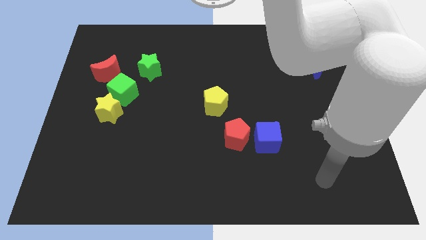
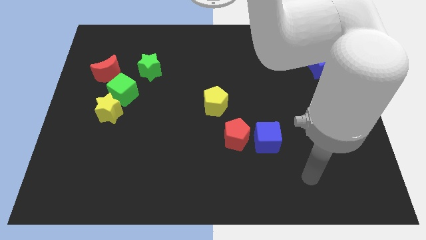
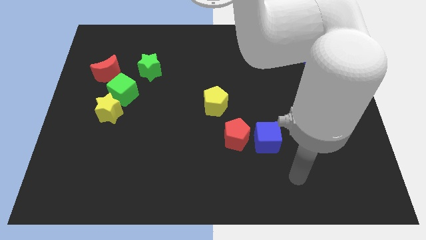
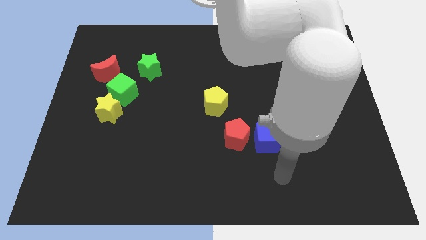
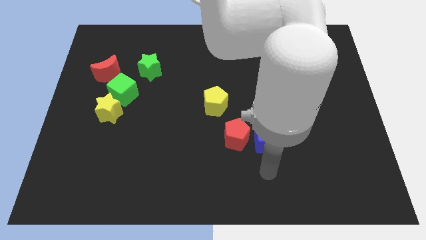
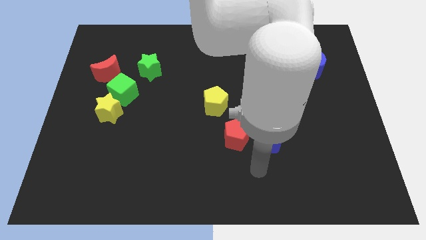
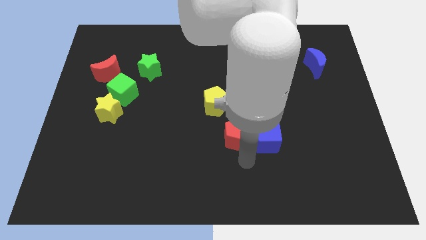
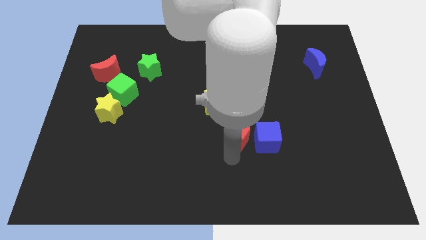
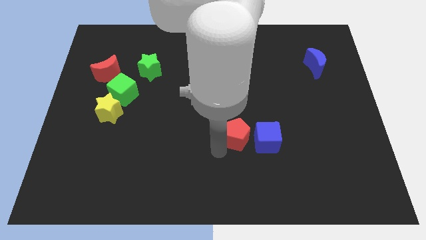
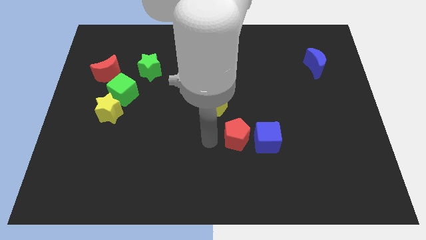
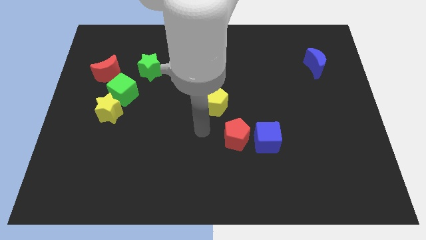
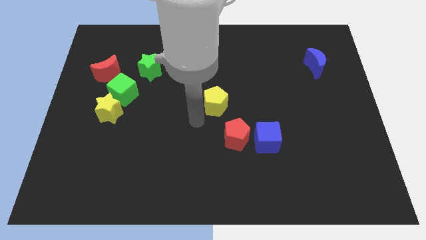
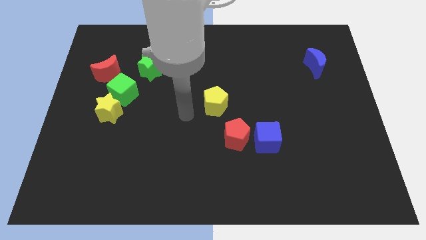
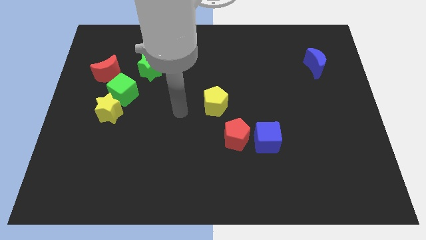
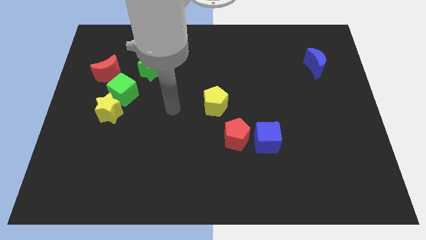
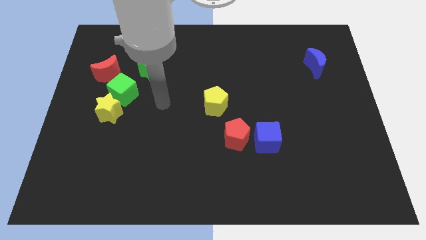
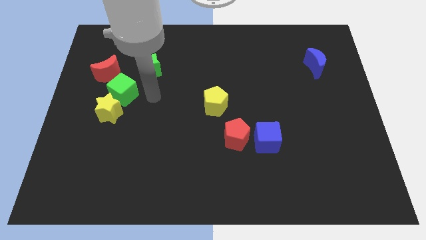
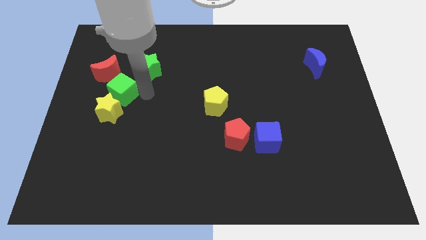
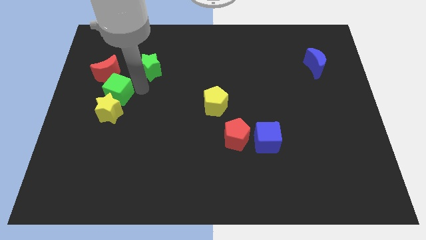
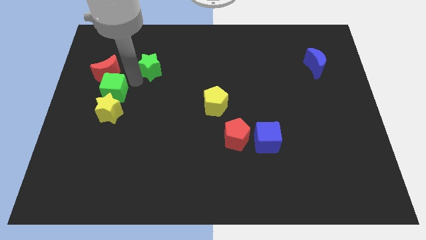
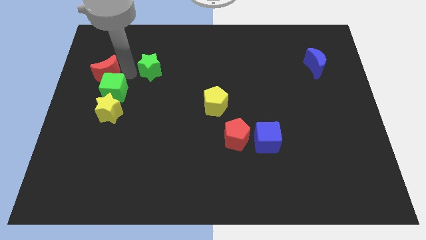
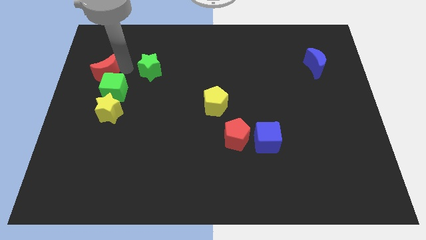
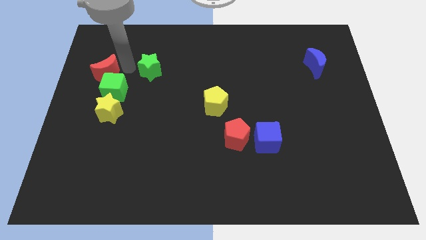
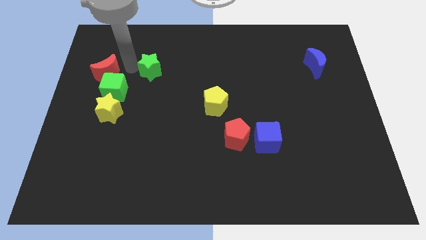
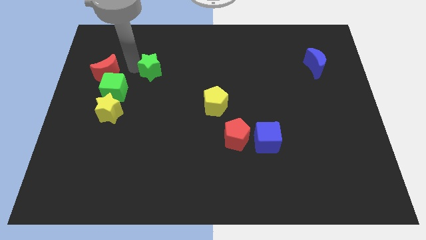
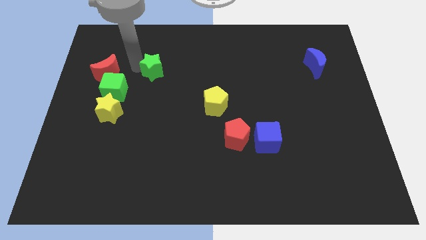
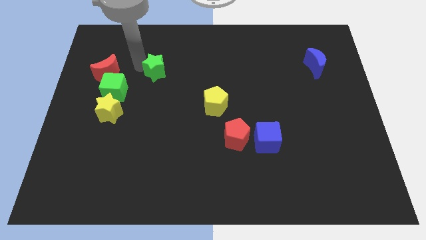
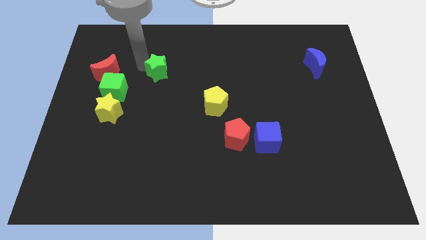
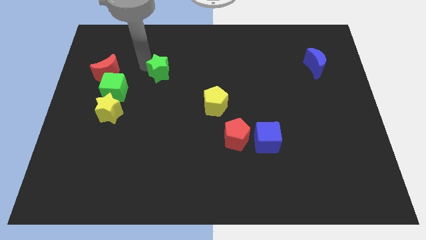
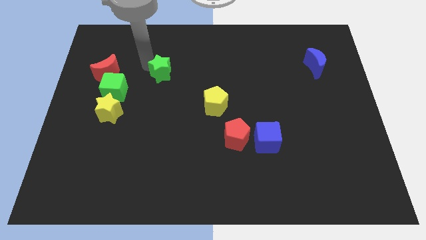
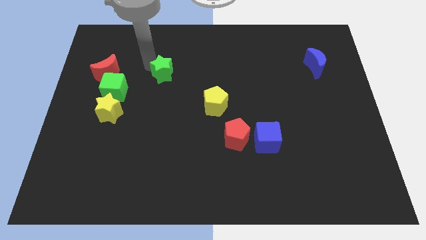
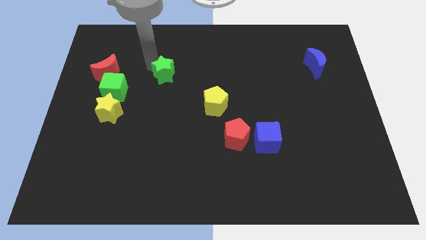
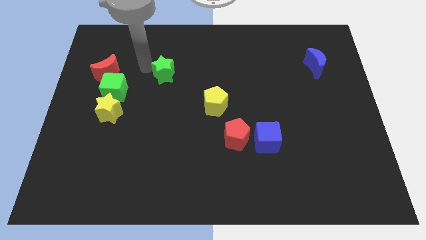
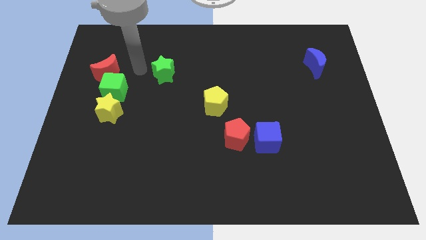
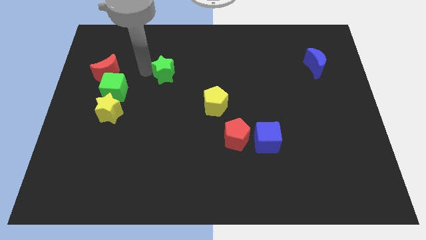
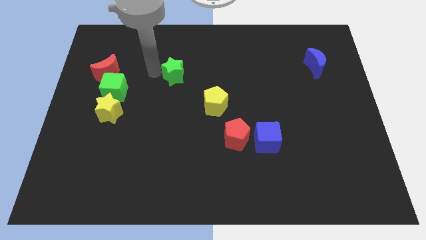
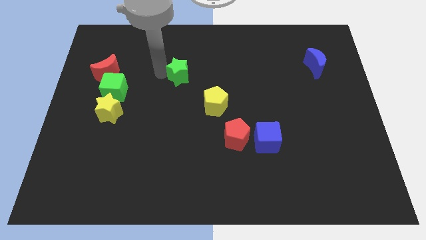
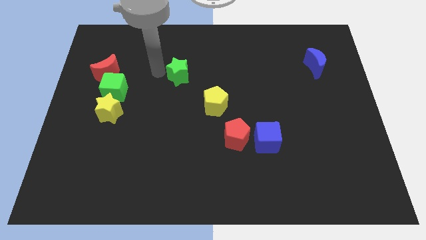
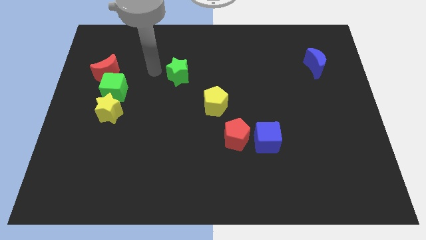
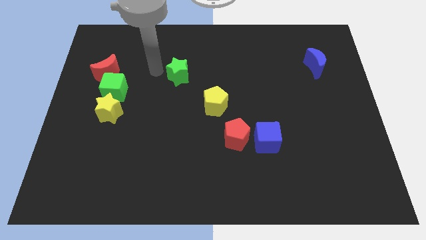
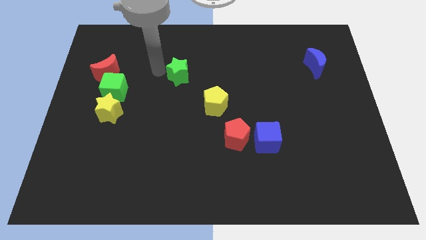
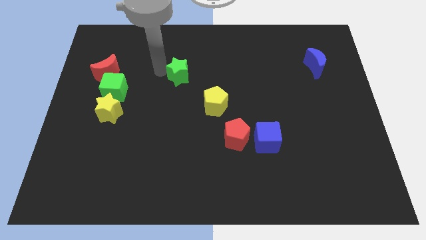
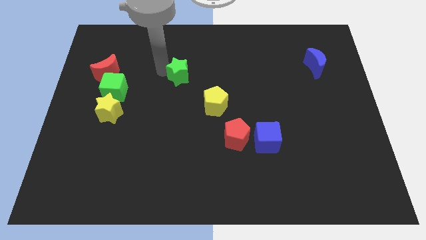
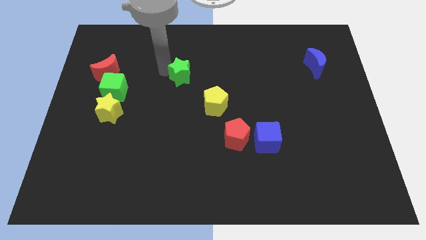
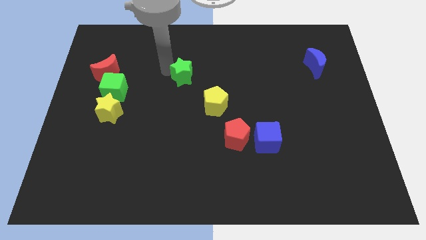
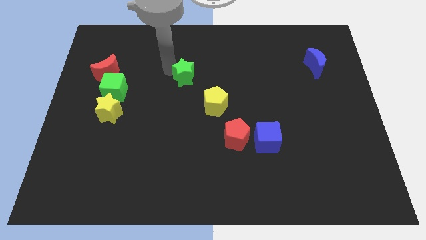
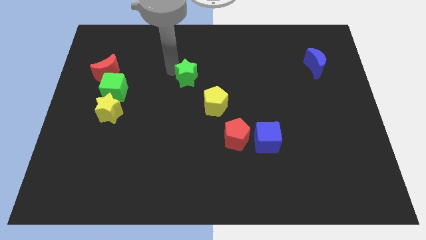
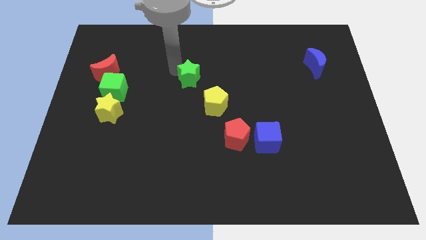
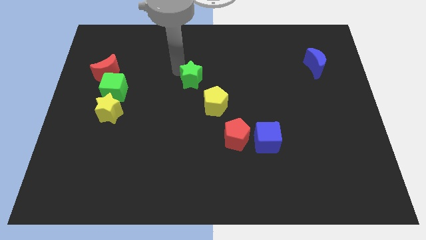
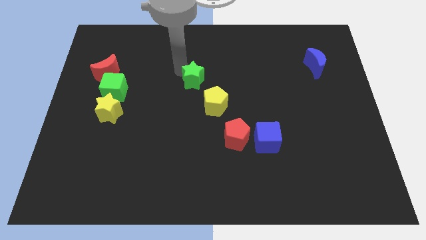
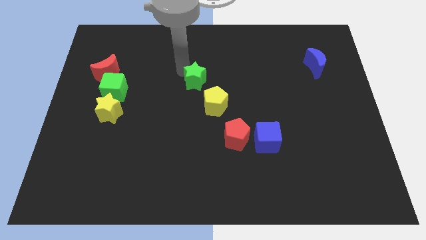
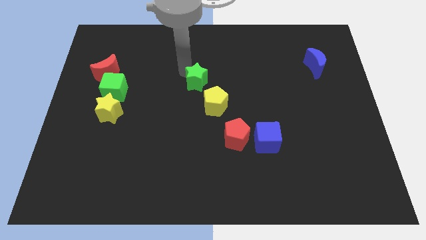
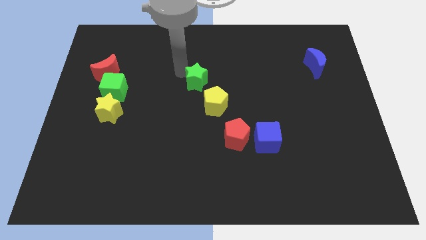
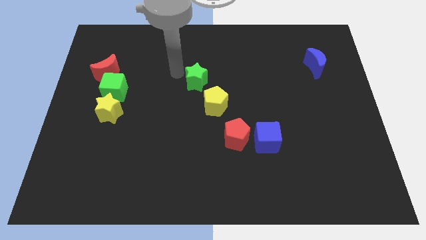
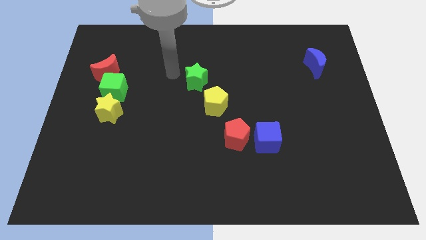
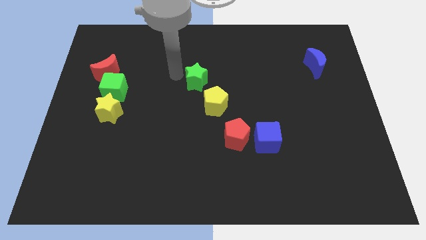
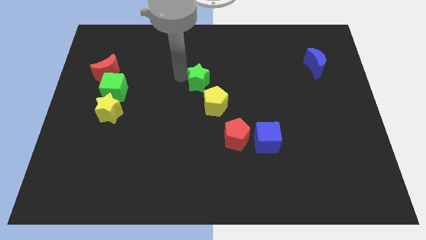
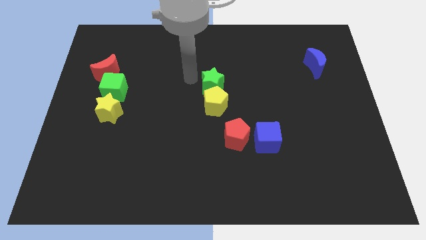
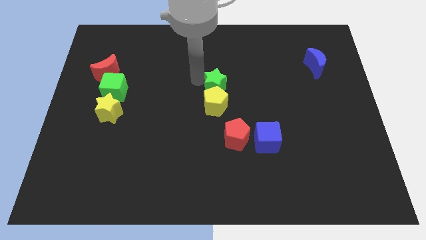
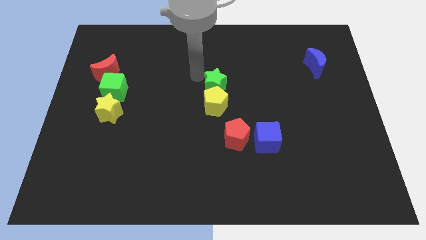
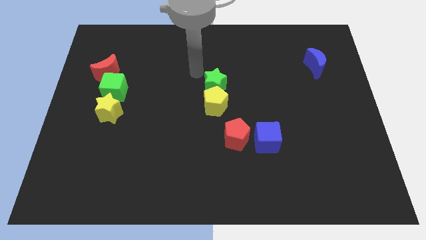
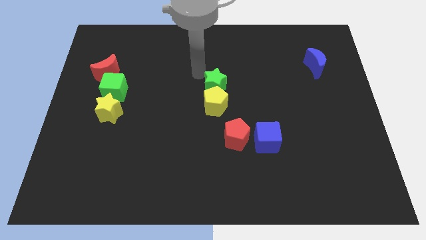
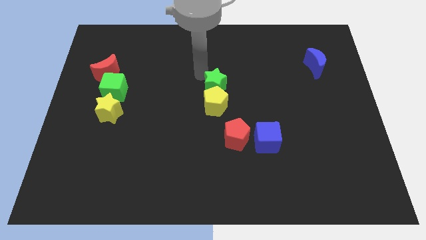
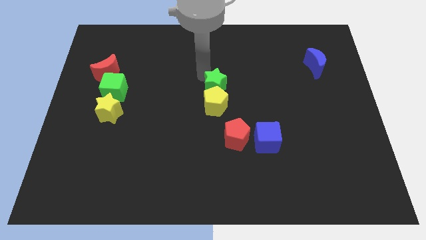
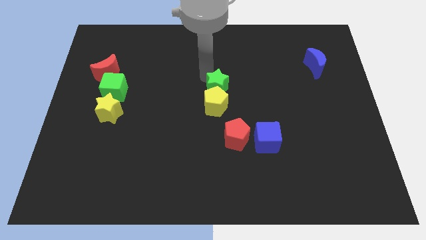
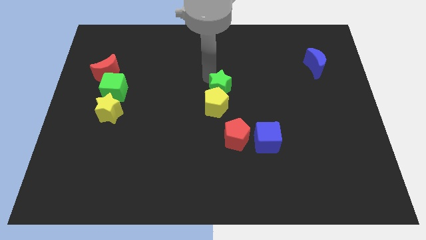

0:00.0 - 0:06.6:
push the green star above the red pentagon

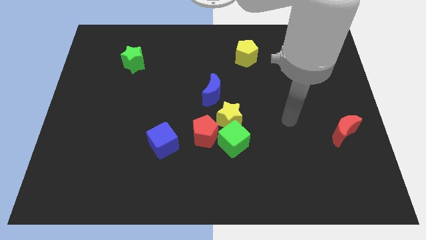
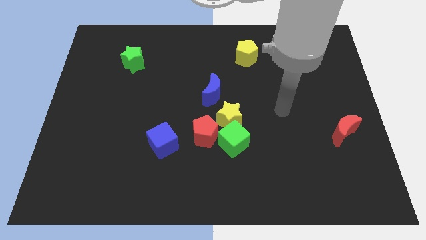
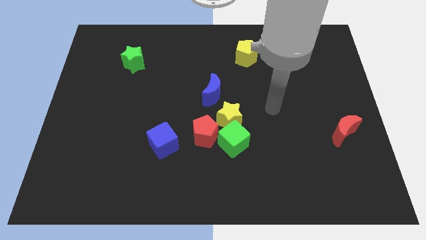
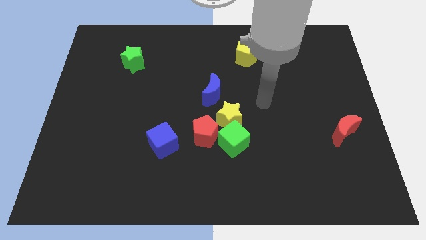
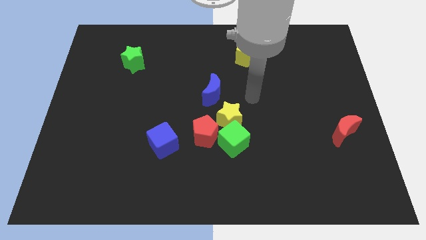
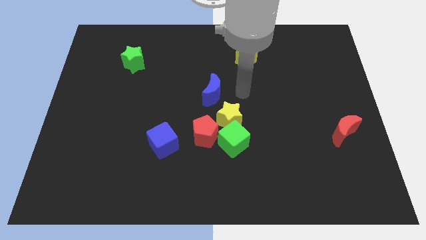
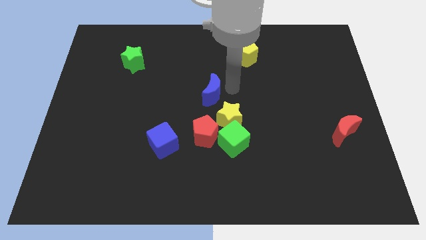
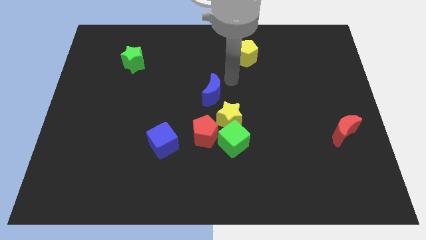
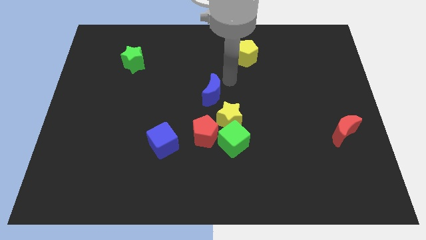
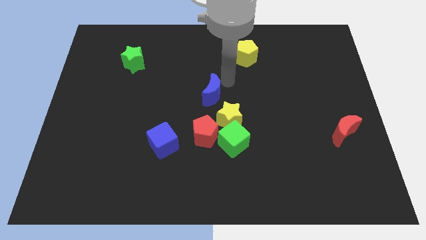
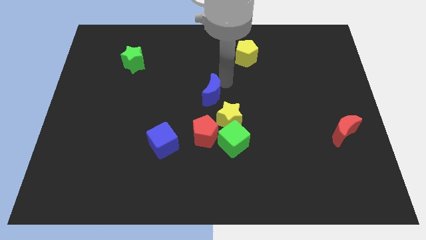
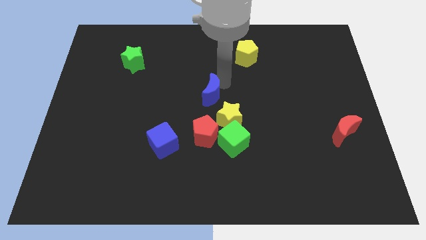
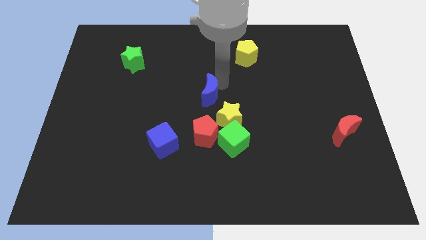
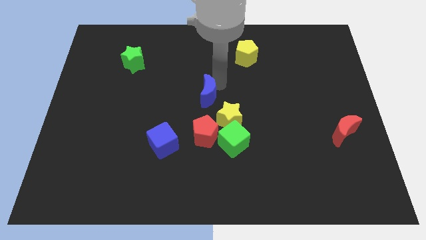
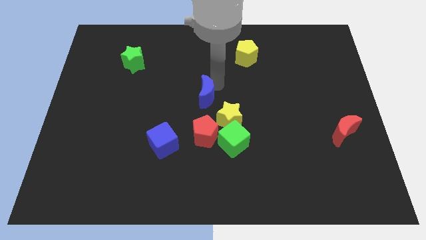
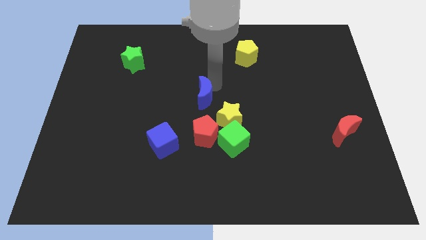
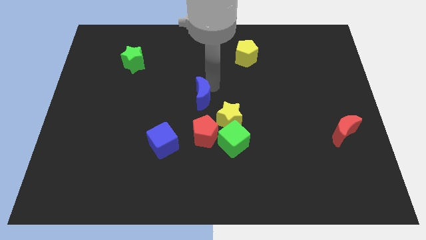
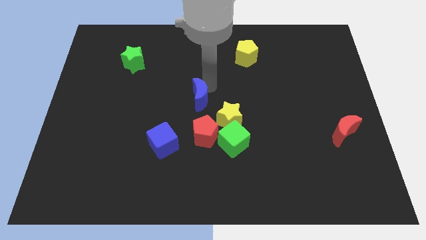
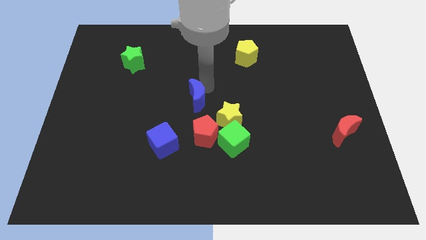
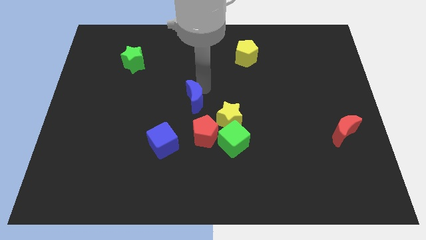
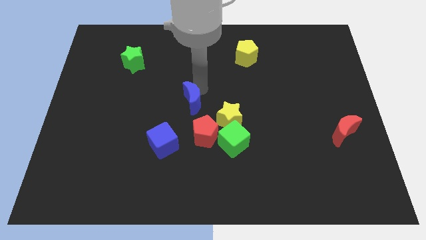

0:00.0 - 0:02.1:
push the blue moon to the top left side of the red pentagon
